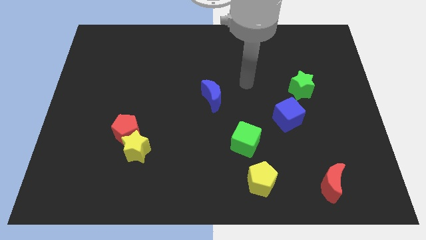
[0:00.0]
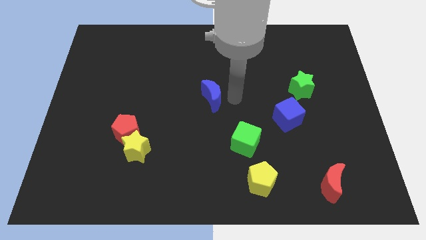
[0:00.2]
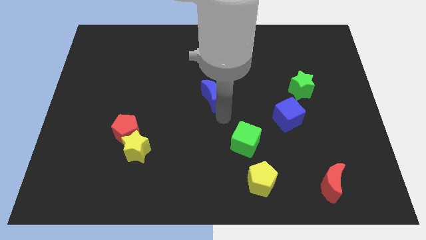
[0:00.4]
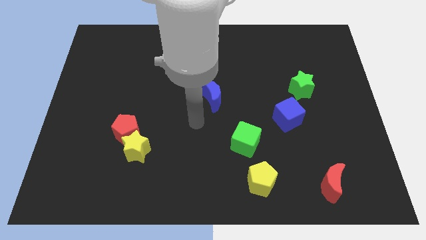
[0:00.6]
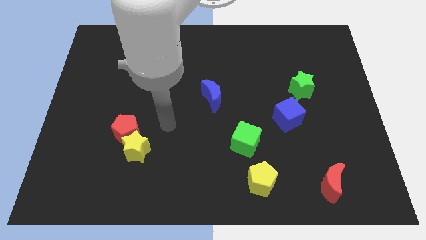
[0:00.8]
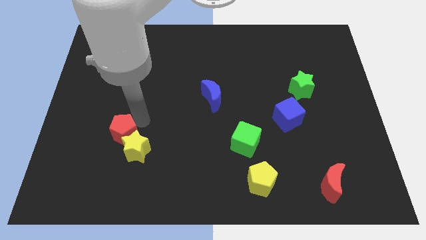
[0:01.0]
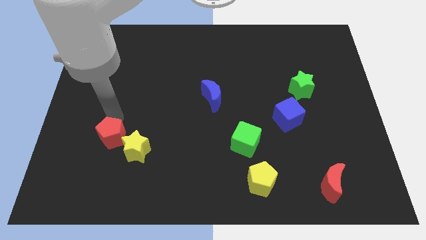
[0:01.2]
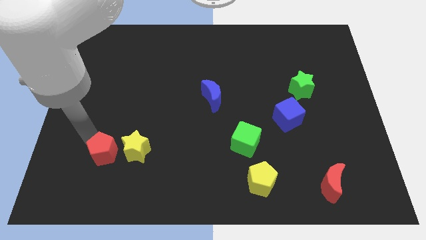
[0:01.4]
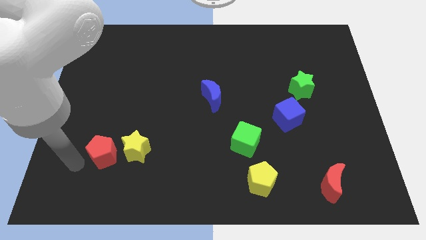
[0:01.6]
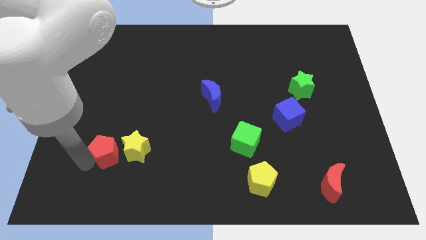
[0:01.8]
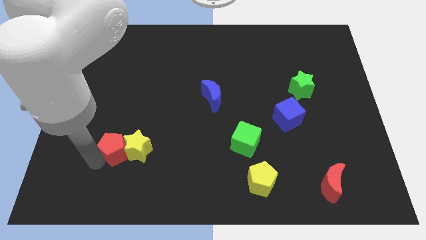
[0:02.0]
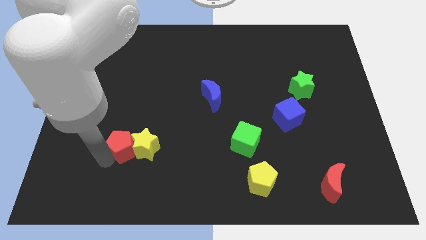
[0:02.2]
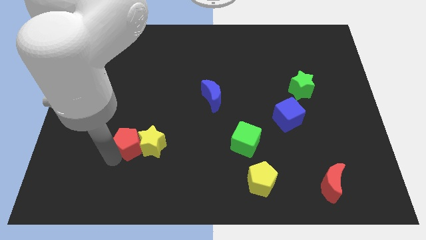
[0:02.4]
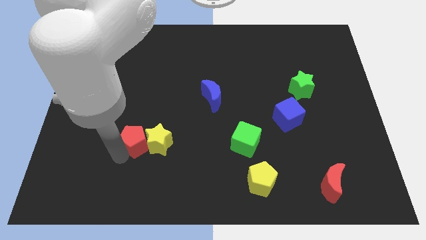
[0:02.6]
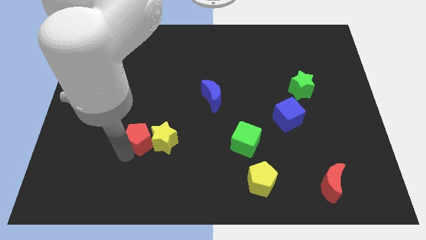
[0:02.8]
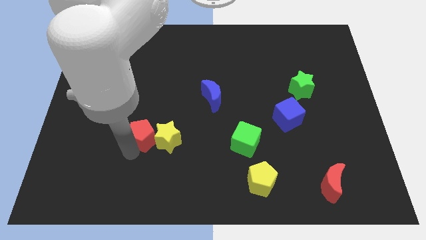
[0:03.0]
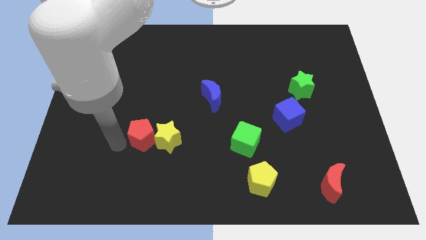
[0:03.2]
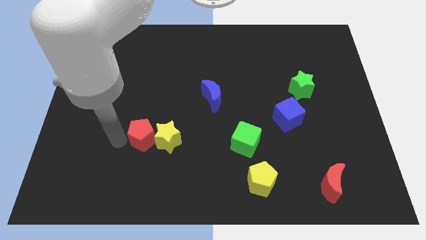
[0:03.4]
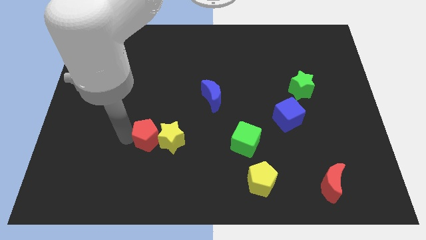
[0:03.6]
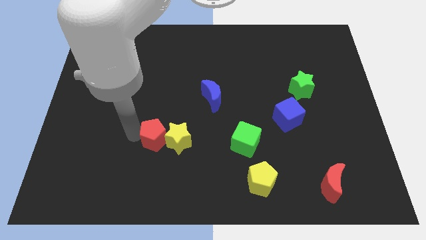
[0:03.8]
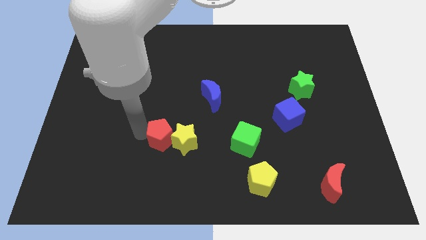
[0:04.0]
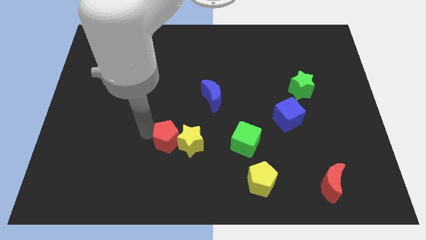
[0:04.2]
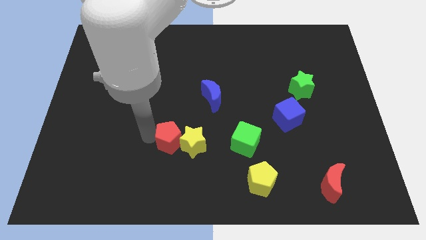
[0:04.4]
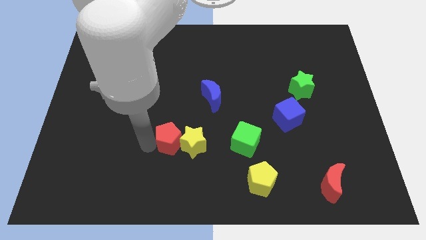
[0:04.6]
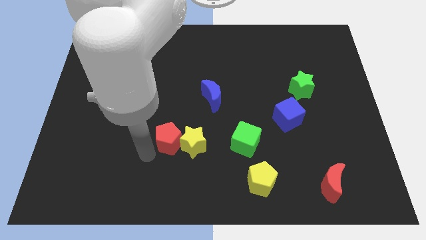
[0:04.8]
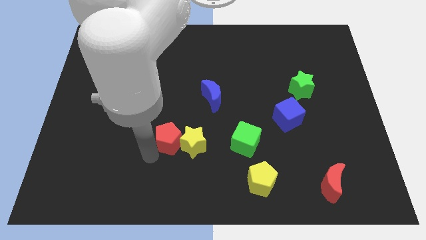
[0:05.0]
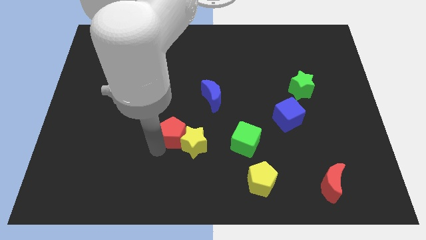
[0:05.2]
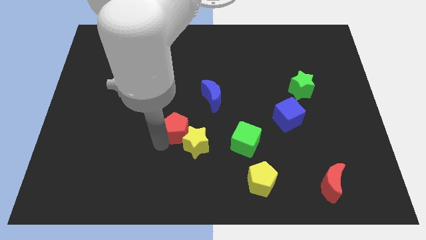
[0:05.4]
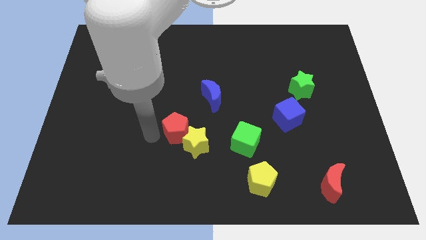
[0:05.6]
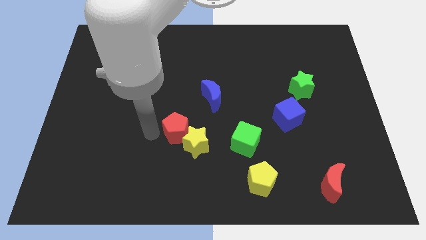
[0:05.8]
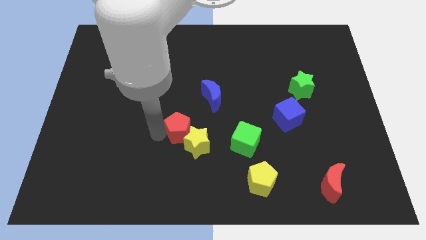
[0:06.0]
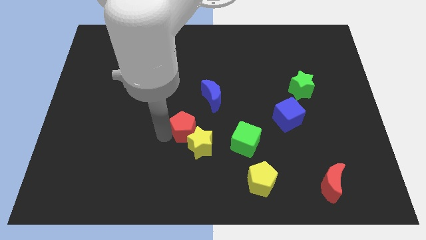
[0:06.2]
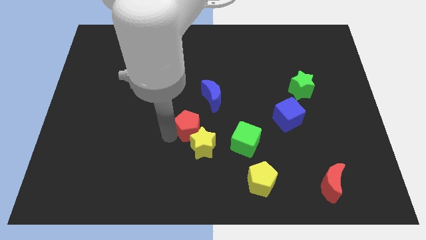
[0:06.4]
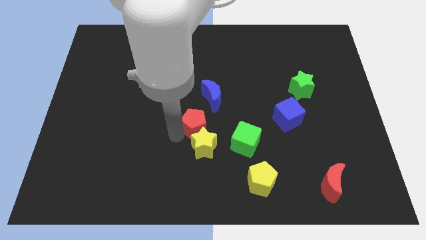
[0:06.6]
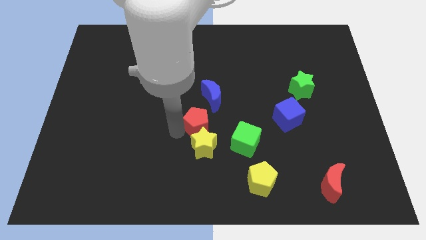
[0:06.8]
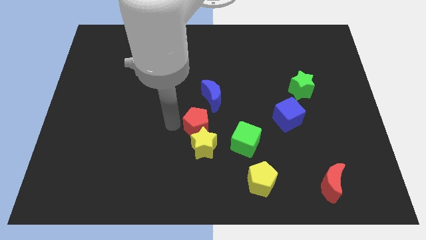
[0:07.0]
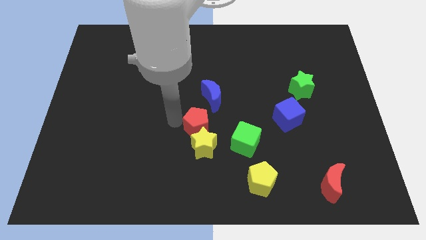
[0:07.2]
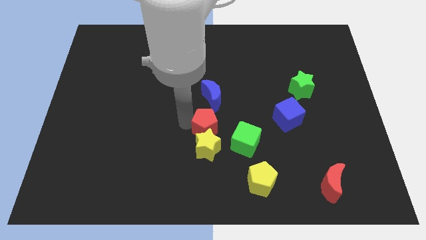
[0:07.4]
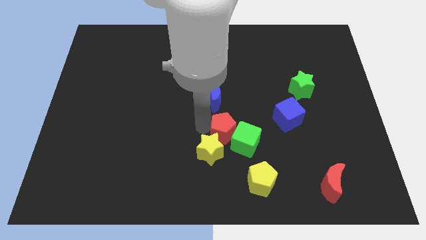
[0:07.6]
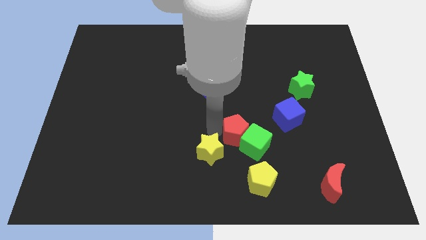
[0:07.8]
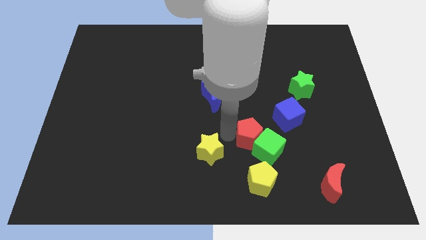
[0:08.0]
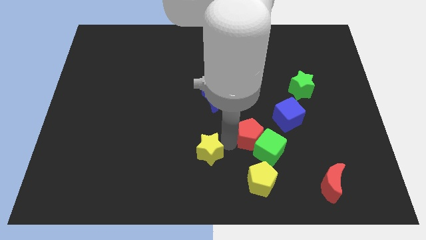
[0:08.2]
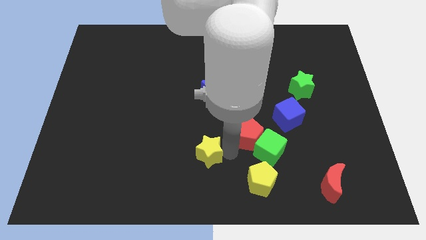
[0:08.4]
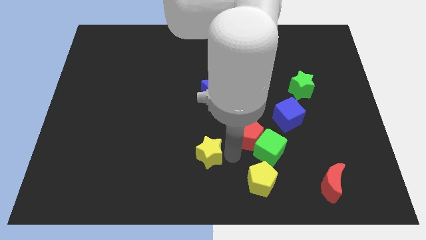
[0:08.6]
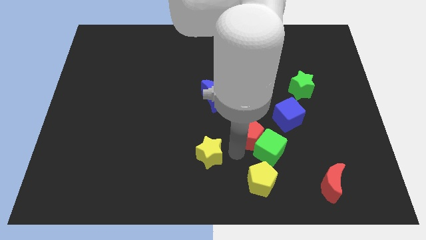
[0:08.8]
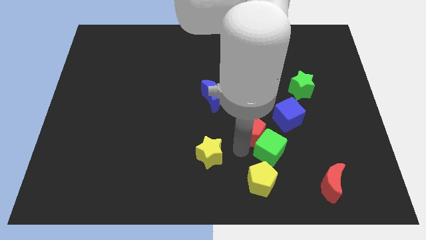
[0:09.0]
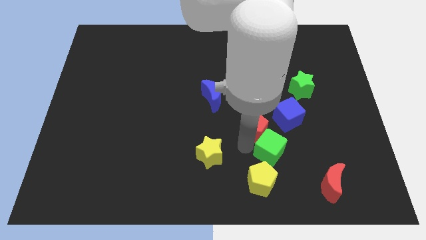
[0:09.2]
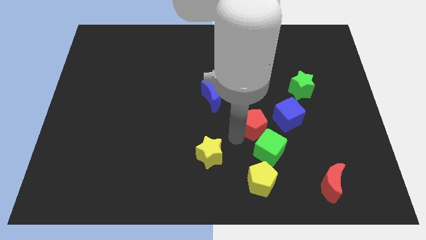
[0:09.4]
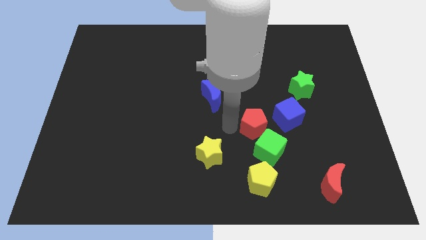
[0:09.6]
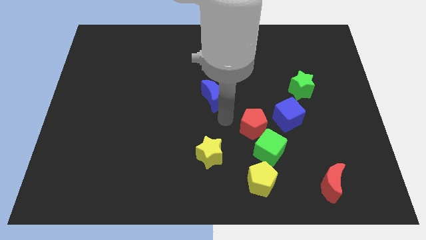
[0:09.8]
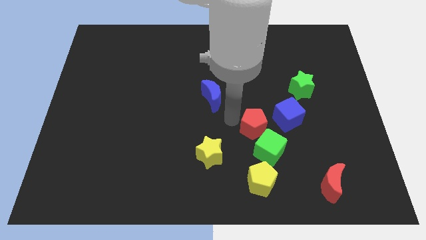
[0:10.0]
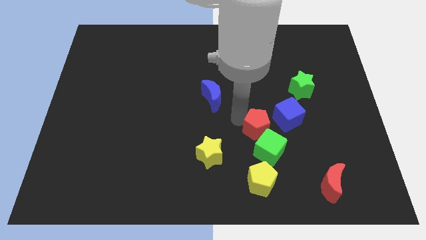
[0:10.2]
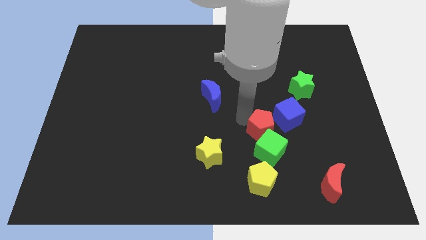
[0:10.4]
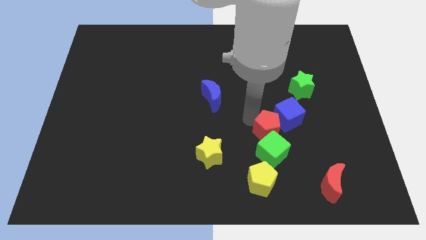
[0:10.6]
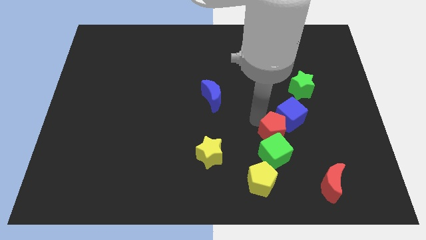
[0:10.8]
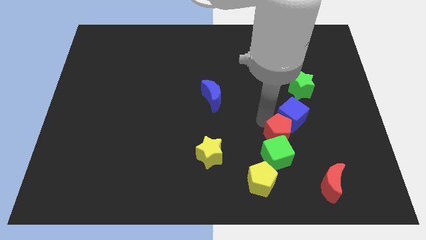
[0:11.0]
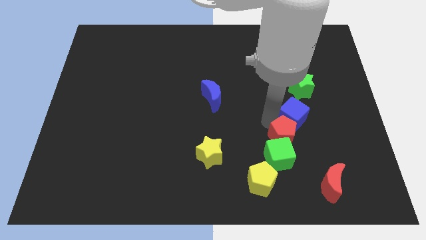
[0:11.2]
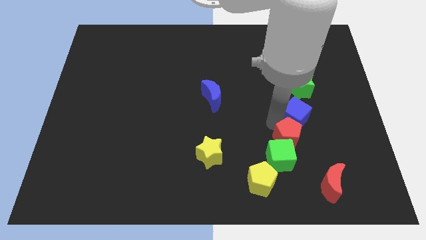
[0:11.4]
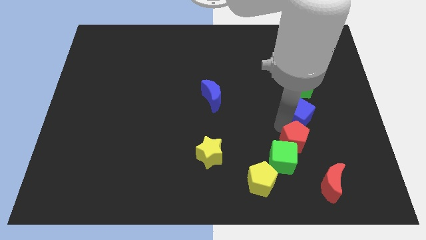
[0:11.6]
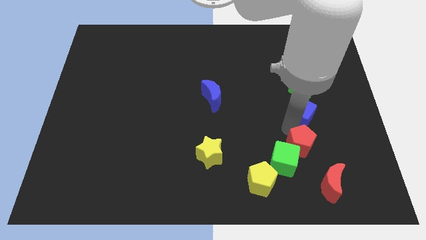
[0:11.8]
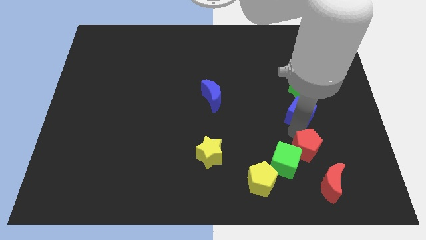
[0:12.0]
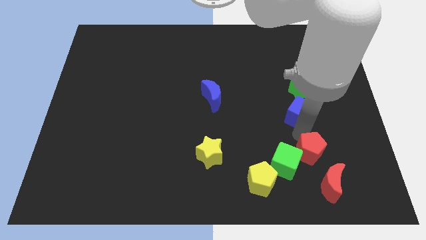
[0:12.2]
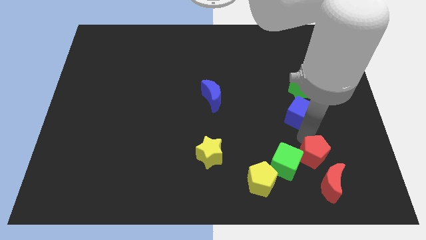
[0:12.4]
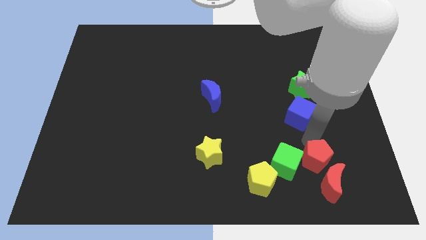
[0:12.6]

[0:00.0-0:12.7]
put the red pentagon close to the red moon

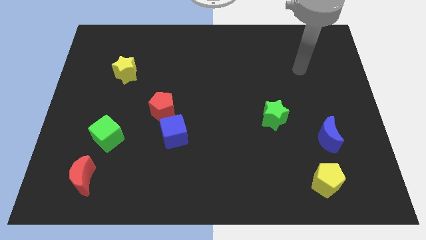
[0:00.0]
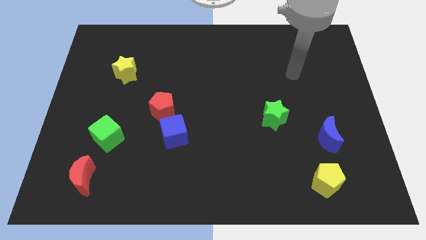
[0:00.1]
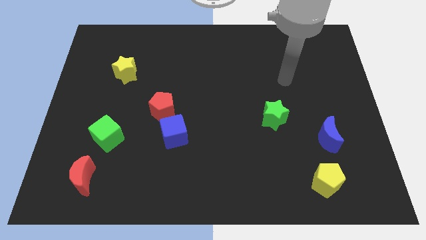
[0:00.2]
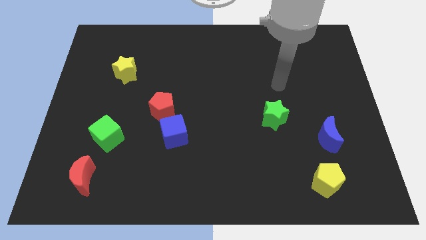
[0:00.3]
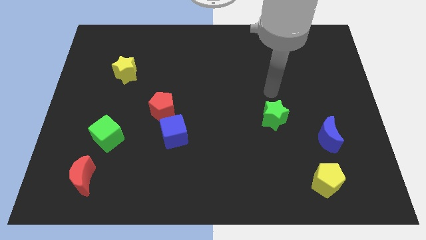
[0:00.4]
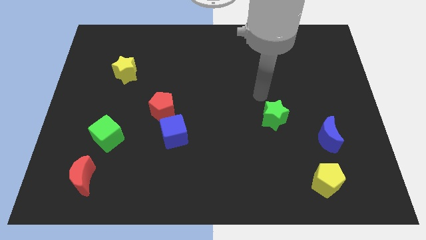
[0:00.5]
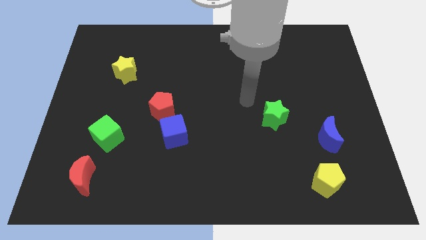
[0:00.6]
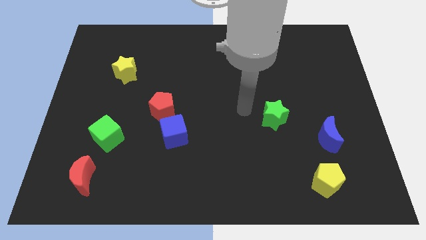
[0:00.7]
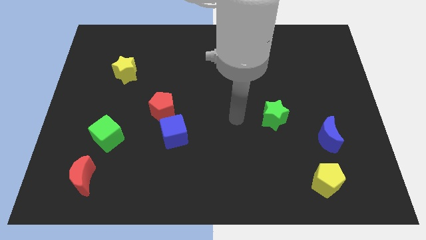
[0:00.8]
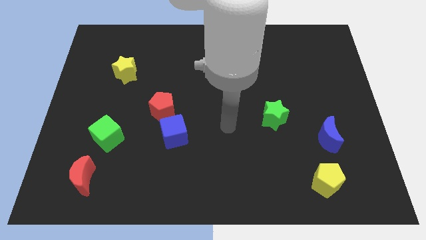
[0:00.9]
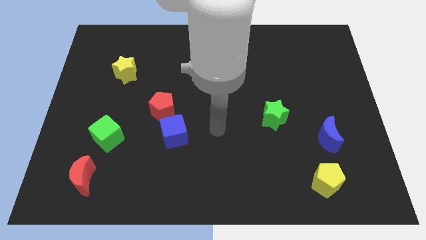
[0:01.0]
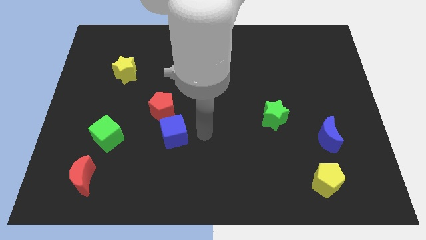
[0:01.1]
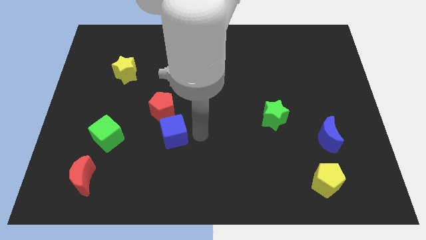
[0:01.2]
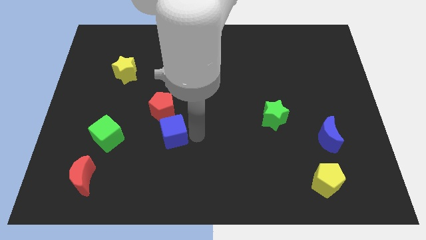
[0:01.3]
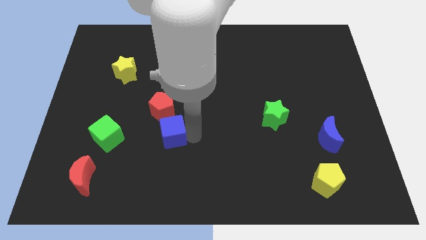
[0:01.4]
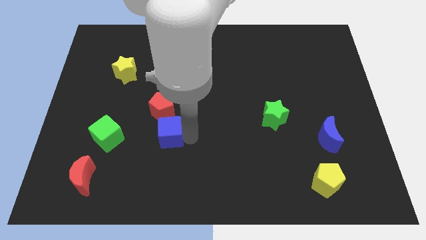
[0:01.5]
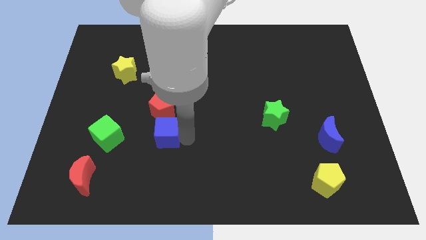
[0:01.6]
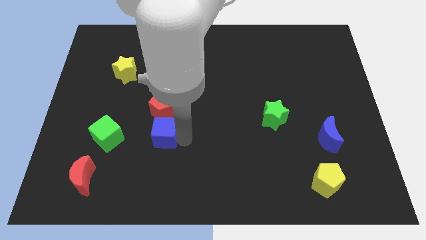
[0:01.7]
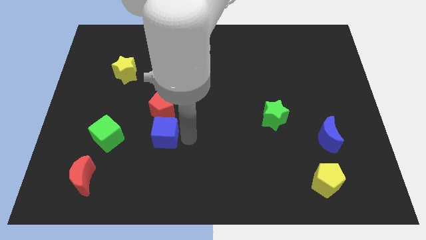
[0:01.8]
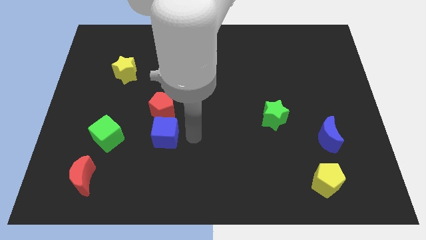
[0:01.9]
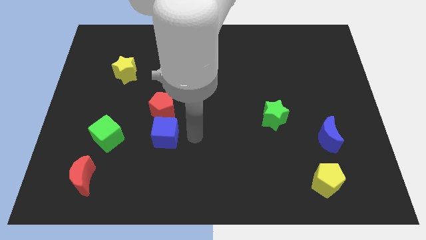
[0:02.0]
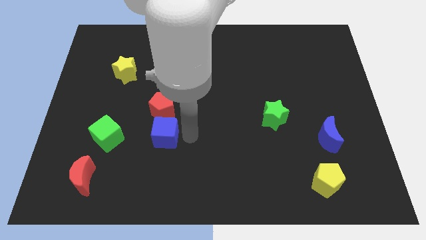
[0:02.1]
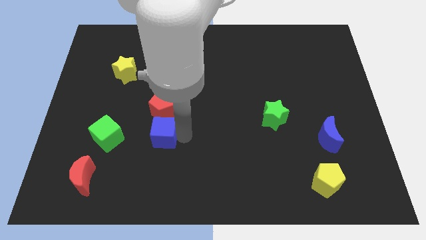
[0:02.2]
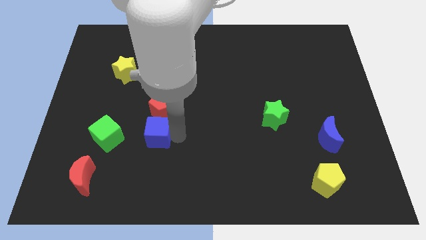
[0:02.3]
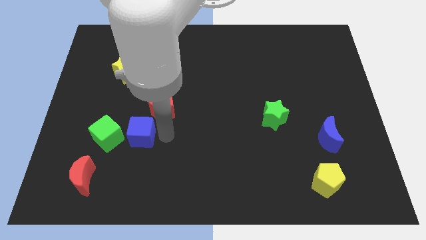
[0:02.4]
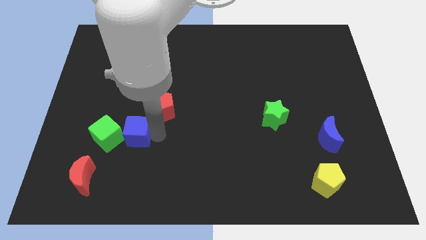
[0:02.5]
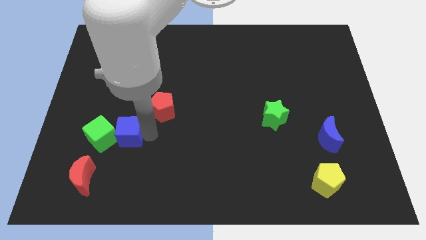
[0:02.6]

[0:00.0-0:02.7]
slide the blue cube towards the green cube
